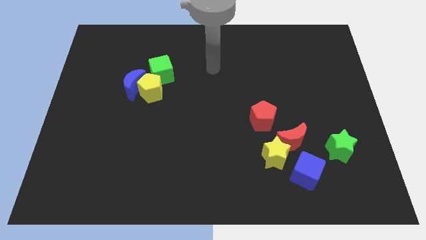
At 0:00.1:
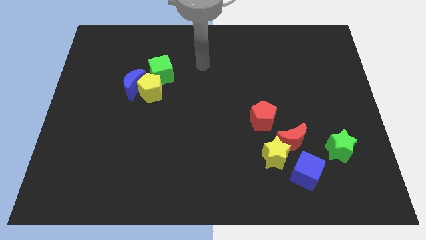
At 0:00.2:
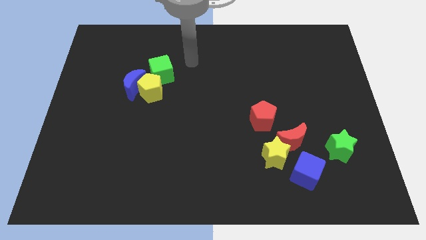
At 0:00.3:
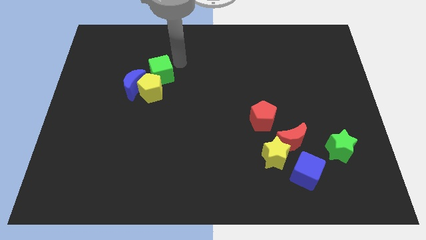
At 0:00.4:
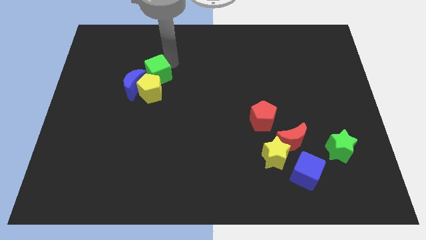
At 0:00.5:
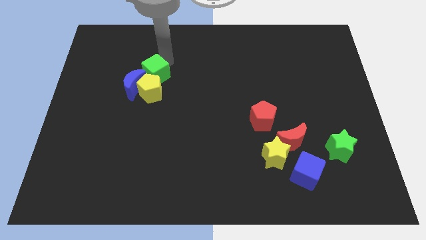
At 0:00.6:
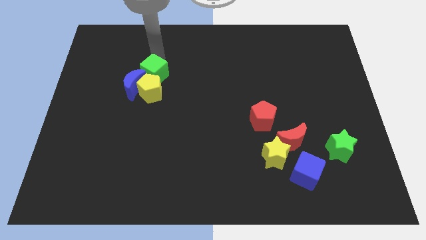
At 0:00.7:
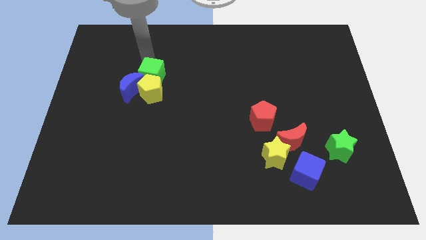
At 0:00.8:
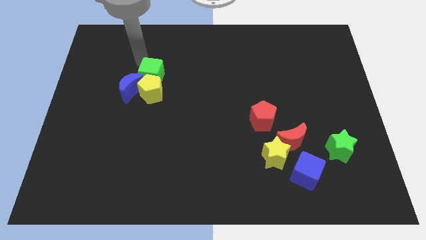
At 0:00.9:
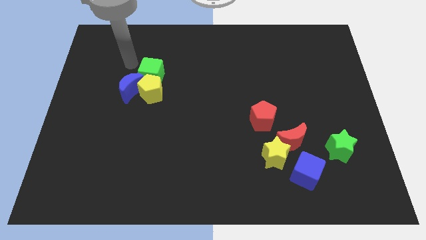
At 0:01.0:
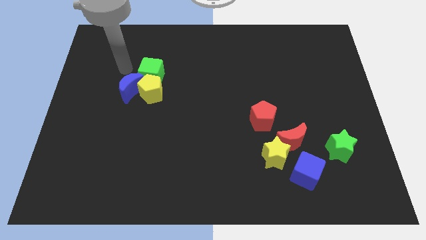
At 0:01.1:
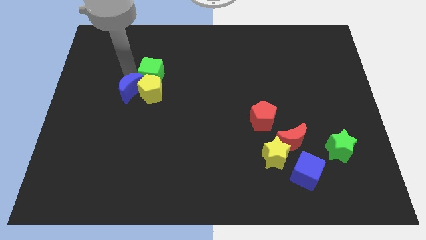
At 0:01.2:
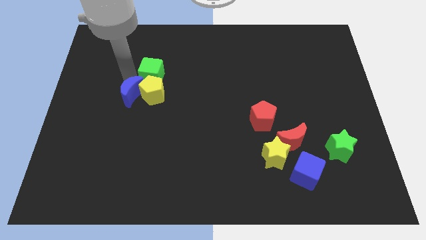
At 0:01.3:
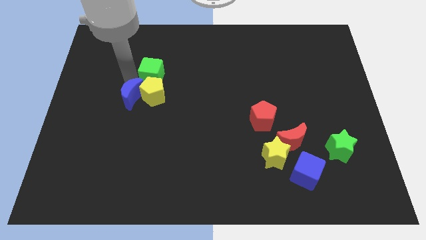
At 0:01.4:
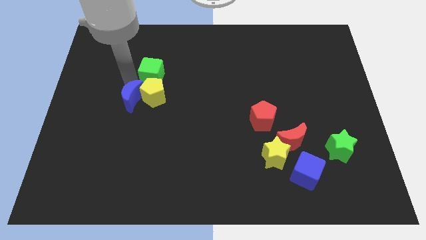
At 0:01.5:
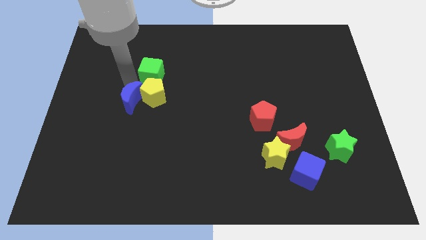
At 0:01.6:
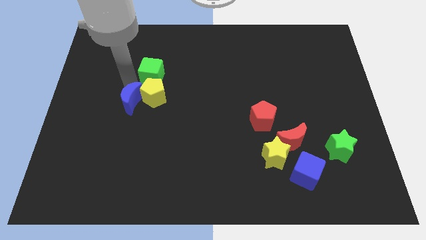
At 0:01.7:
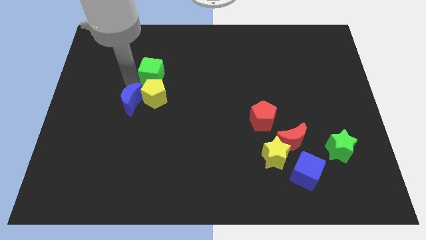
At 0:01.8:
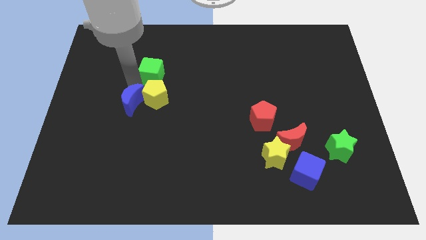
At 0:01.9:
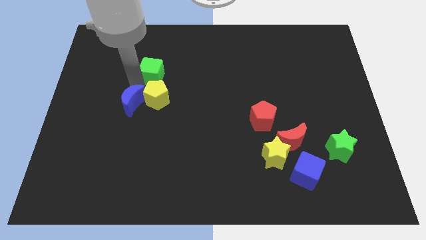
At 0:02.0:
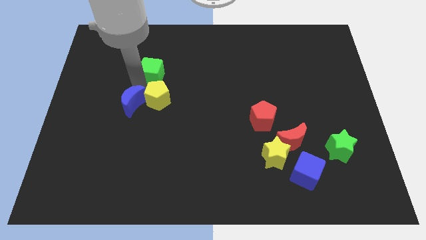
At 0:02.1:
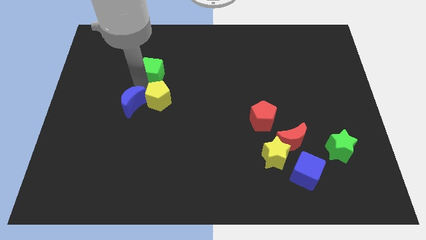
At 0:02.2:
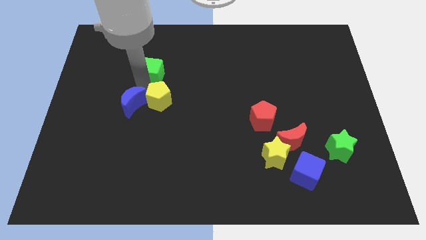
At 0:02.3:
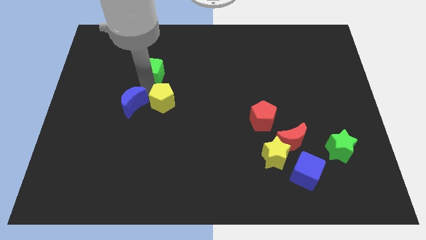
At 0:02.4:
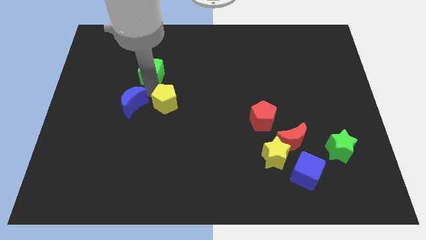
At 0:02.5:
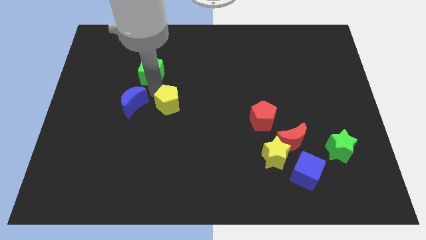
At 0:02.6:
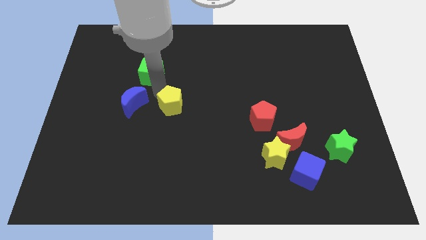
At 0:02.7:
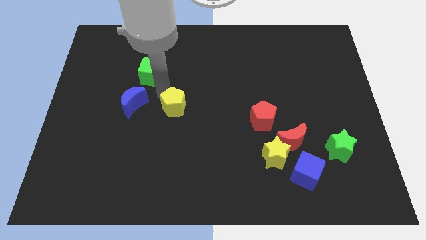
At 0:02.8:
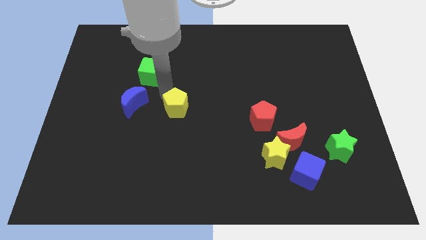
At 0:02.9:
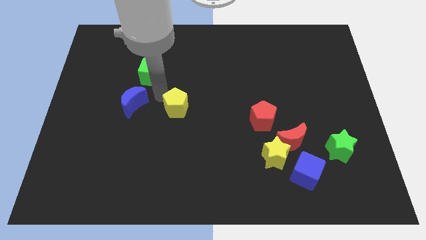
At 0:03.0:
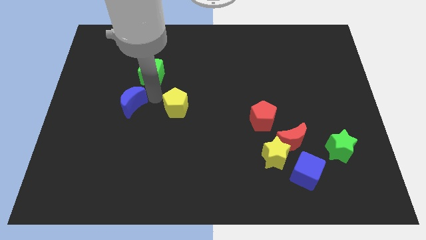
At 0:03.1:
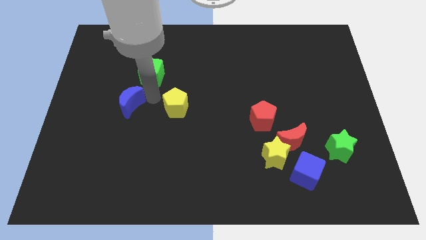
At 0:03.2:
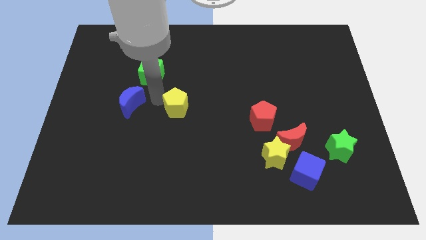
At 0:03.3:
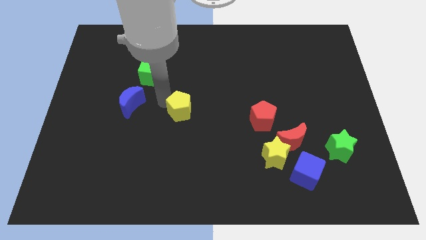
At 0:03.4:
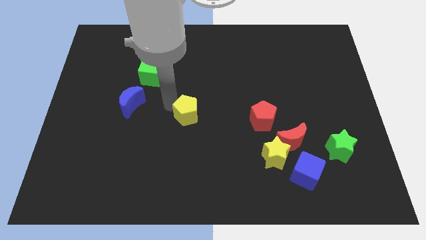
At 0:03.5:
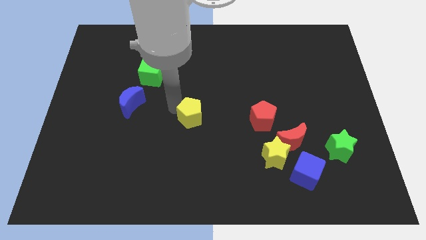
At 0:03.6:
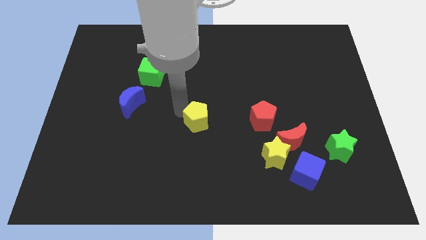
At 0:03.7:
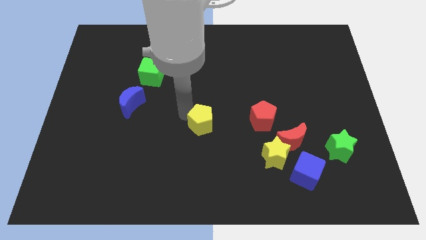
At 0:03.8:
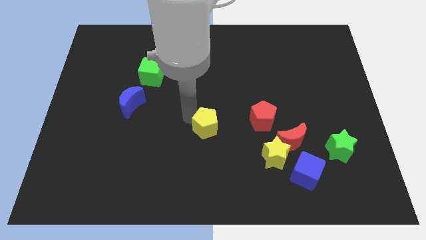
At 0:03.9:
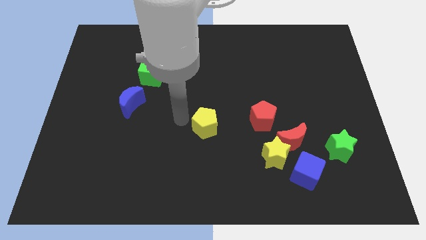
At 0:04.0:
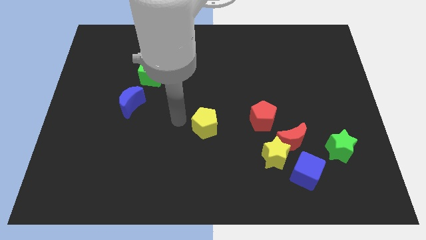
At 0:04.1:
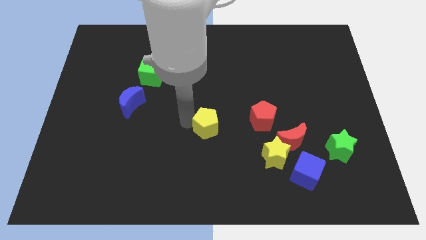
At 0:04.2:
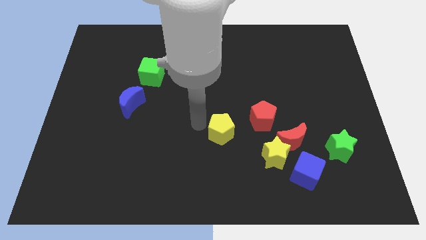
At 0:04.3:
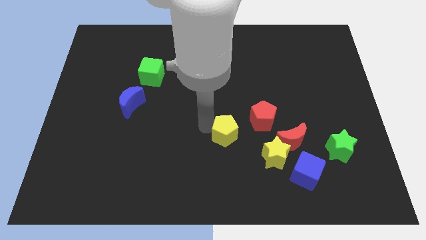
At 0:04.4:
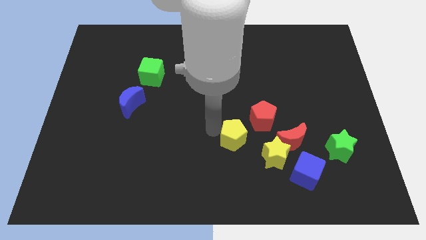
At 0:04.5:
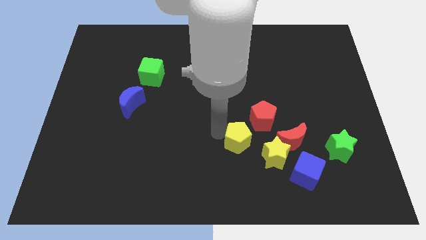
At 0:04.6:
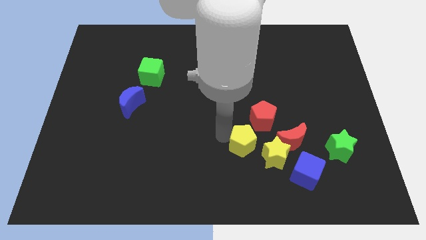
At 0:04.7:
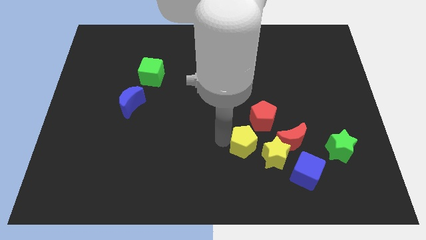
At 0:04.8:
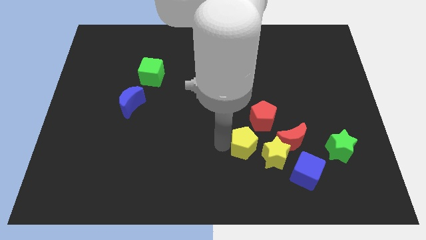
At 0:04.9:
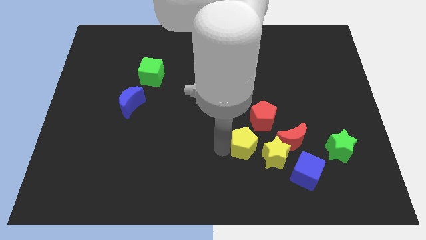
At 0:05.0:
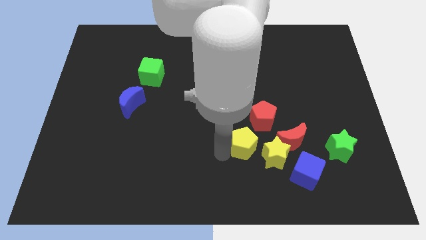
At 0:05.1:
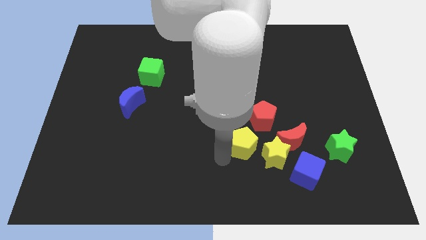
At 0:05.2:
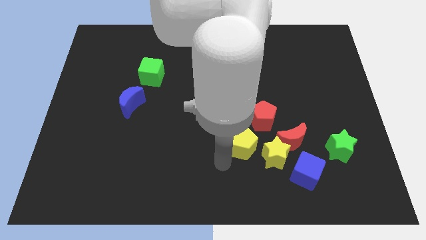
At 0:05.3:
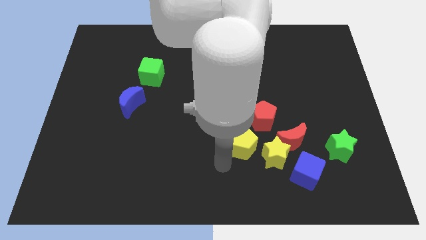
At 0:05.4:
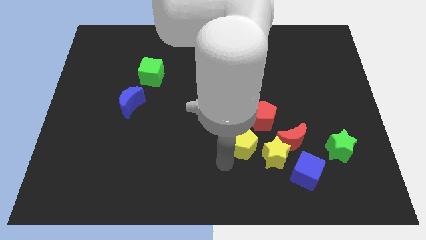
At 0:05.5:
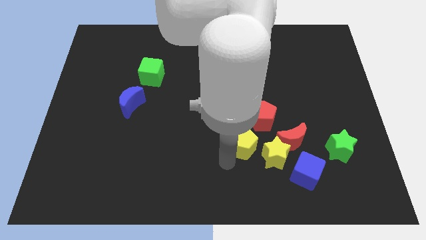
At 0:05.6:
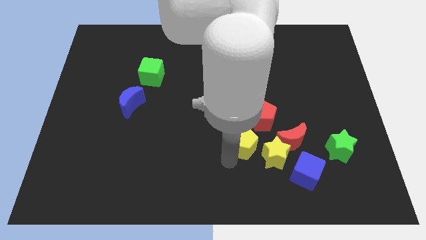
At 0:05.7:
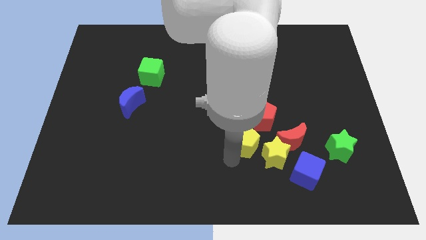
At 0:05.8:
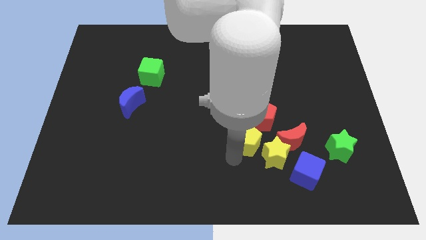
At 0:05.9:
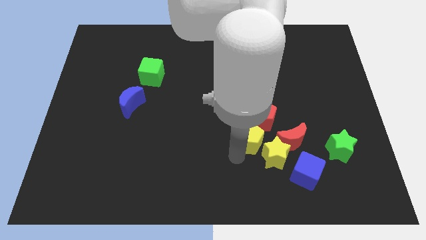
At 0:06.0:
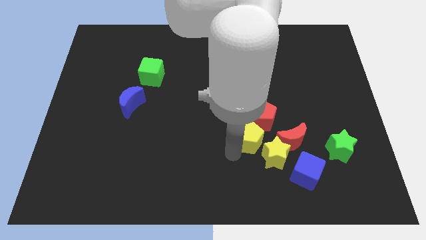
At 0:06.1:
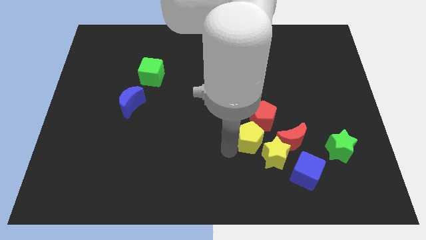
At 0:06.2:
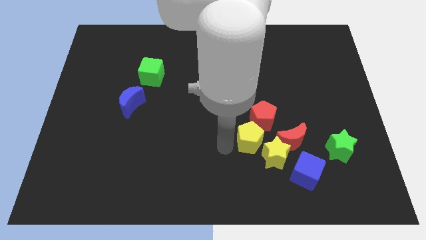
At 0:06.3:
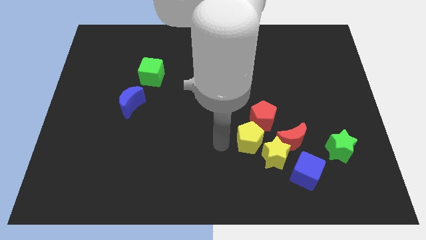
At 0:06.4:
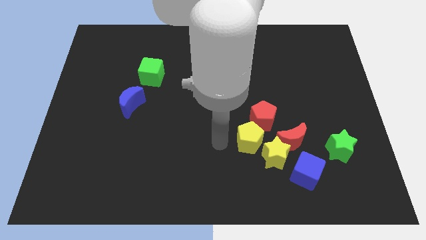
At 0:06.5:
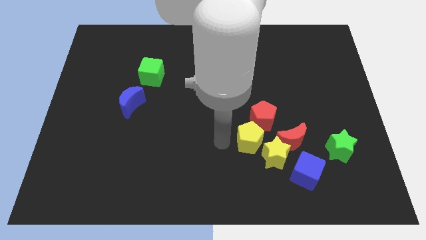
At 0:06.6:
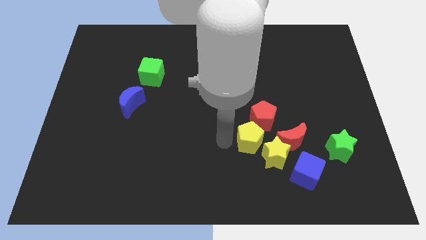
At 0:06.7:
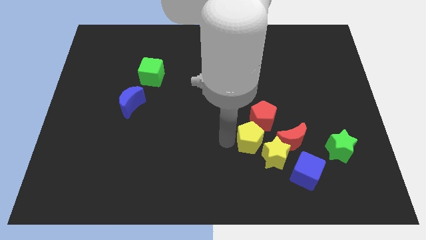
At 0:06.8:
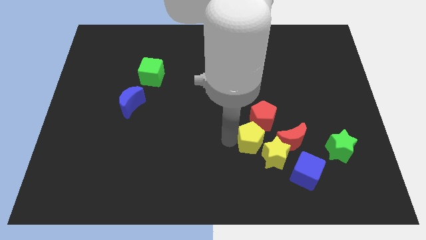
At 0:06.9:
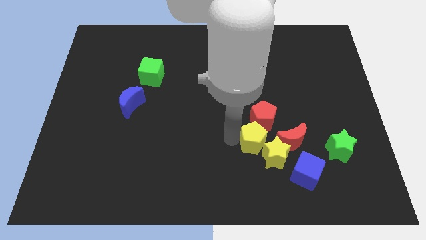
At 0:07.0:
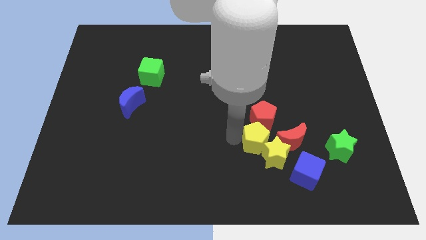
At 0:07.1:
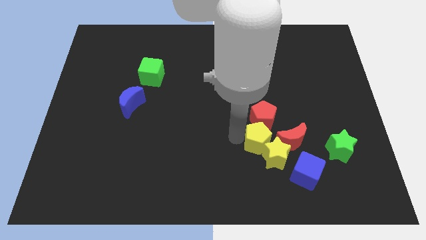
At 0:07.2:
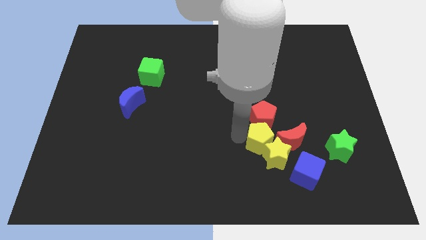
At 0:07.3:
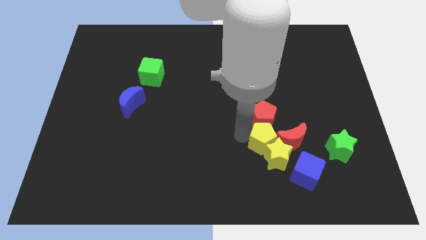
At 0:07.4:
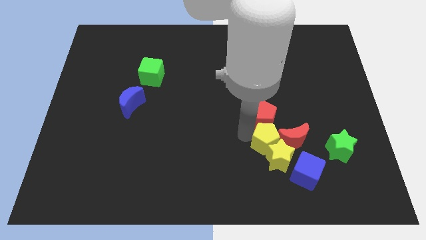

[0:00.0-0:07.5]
put the yellow pentagon next to the red moon

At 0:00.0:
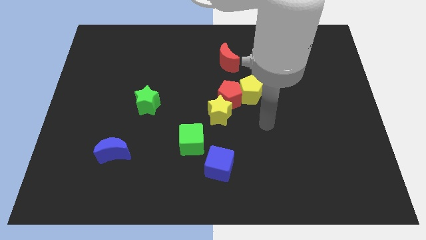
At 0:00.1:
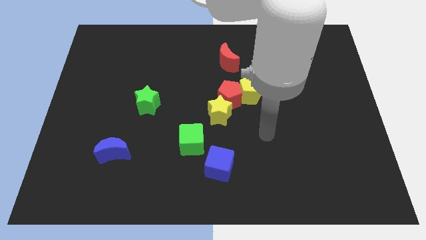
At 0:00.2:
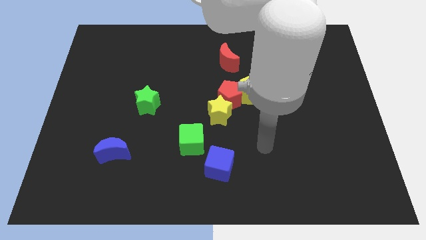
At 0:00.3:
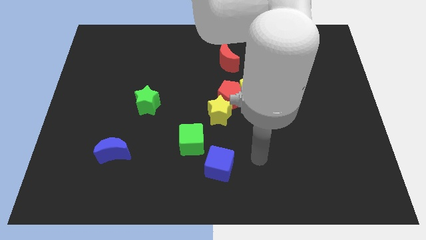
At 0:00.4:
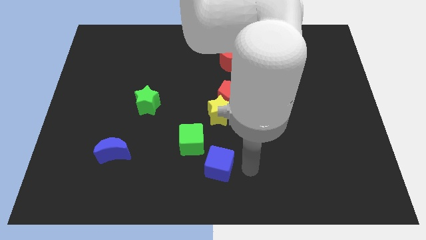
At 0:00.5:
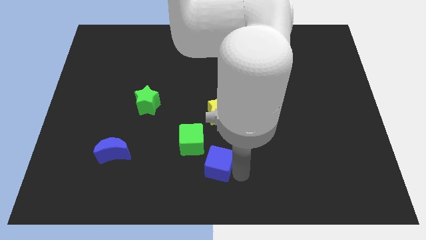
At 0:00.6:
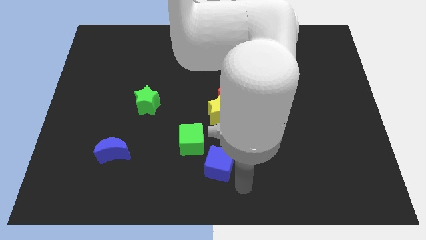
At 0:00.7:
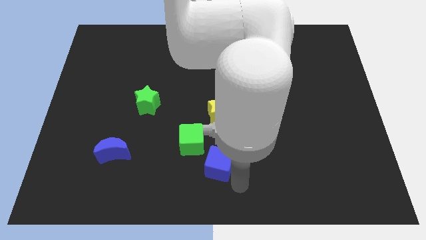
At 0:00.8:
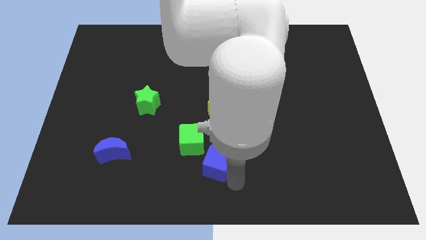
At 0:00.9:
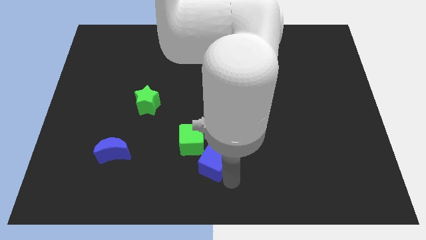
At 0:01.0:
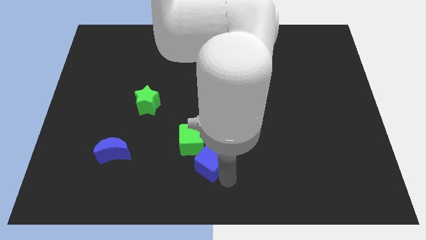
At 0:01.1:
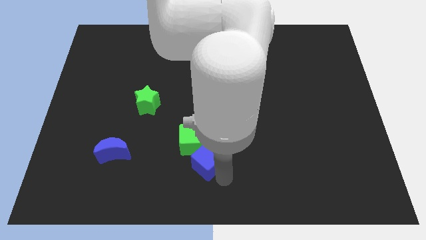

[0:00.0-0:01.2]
put the blue cube next to the green cube
